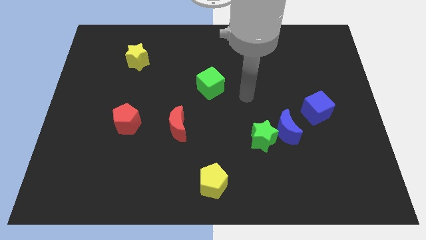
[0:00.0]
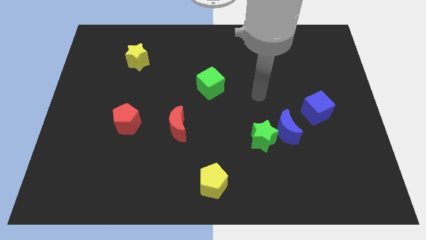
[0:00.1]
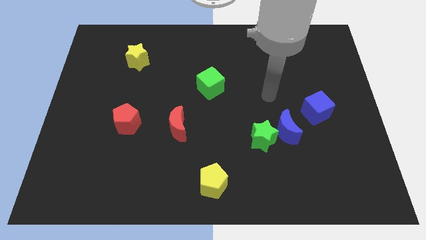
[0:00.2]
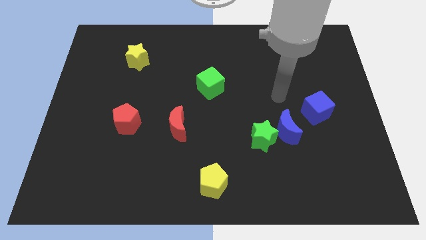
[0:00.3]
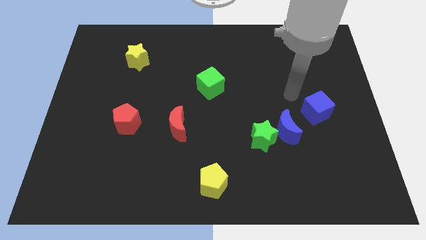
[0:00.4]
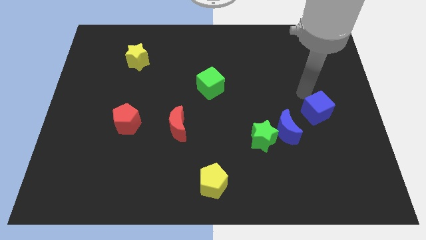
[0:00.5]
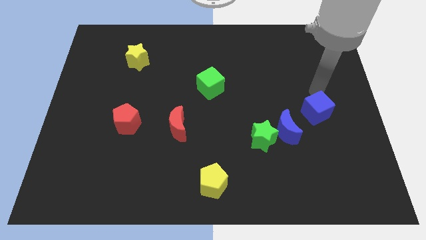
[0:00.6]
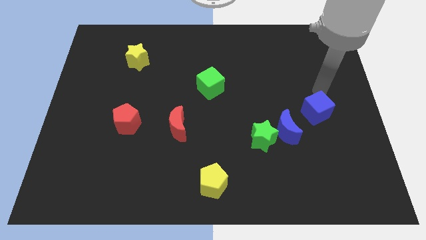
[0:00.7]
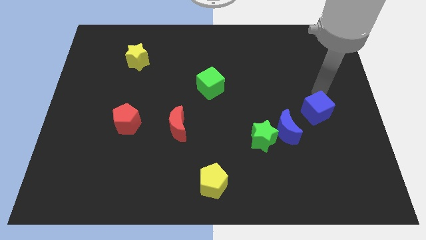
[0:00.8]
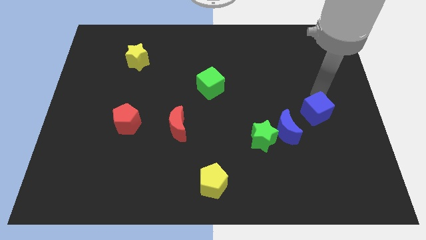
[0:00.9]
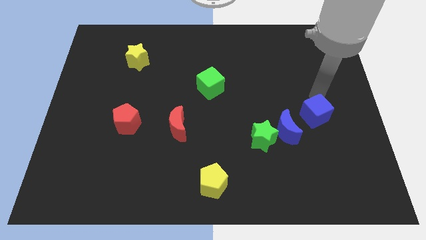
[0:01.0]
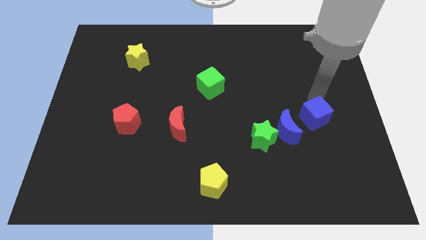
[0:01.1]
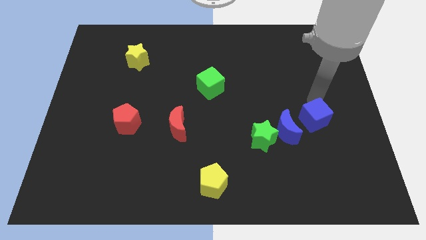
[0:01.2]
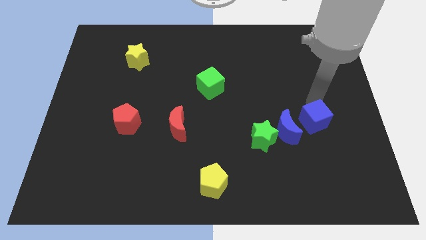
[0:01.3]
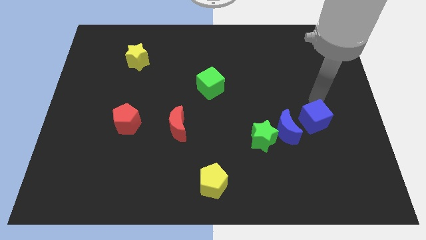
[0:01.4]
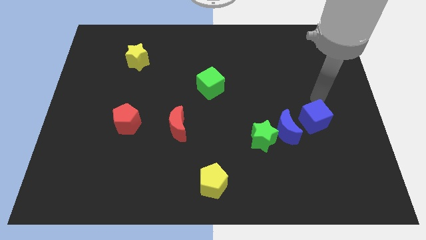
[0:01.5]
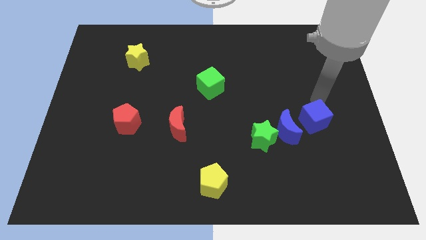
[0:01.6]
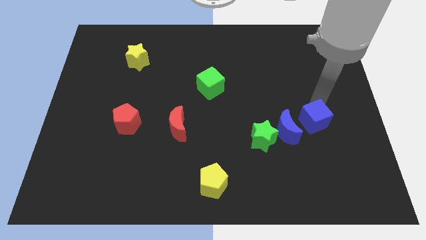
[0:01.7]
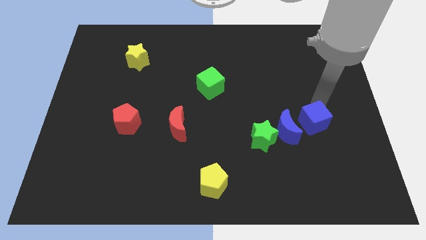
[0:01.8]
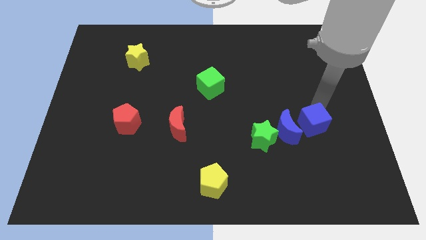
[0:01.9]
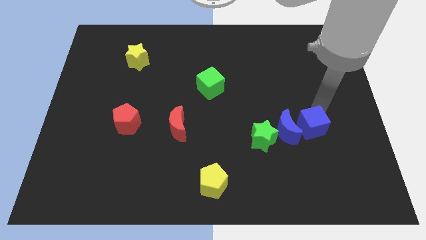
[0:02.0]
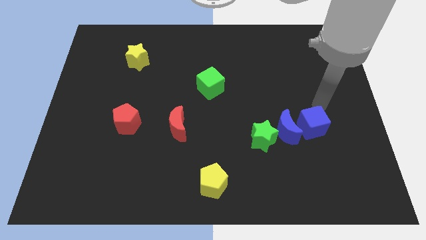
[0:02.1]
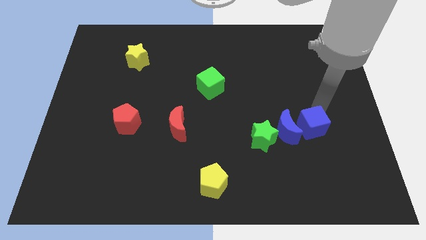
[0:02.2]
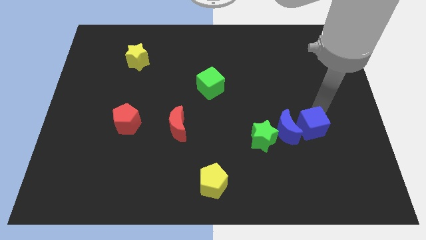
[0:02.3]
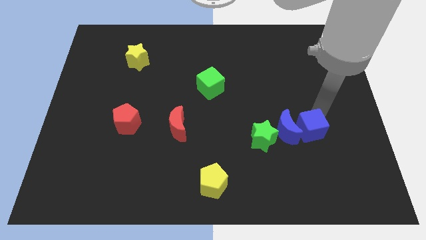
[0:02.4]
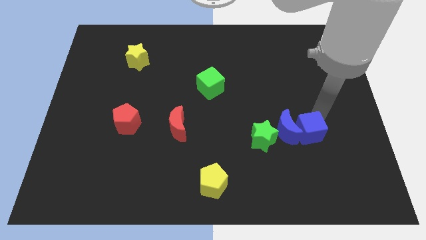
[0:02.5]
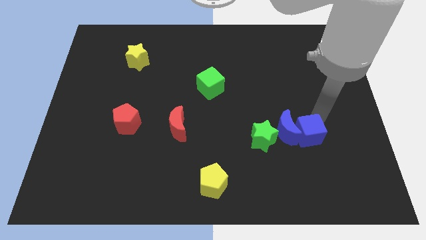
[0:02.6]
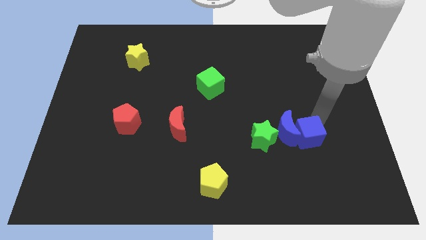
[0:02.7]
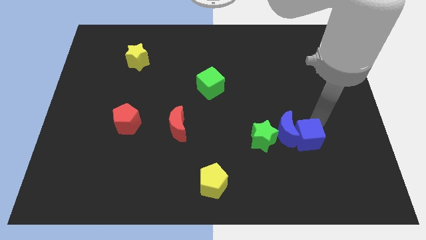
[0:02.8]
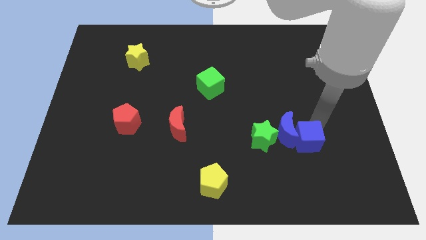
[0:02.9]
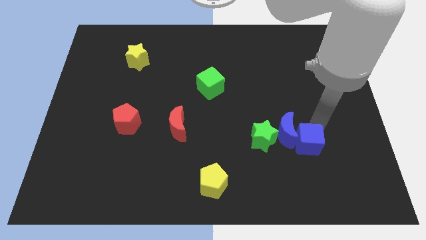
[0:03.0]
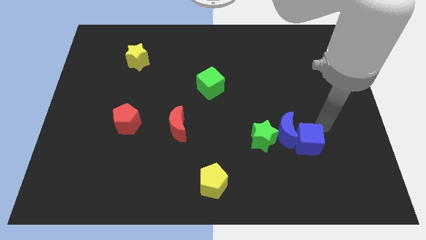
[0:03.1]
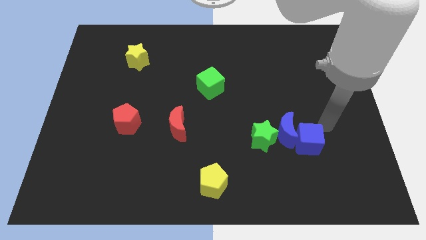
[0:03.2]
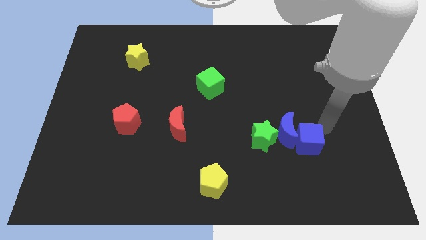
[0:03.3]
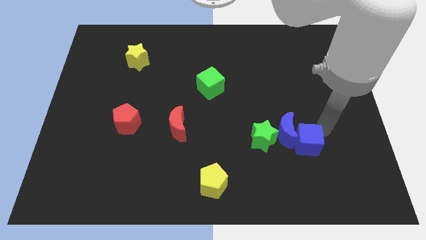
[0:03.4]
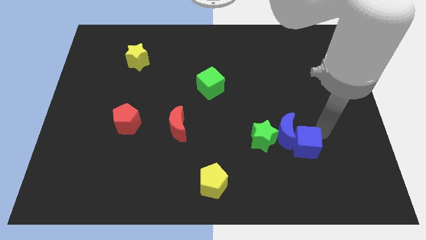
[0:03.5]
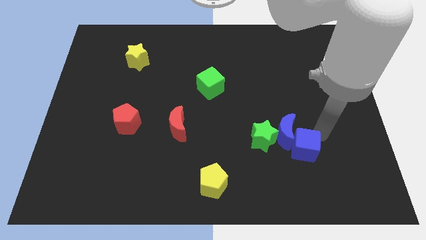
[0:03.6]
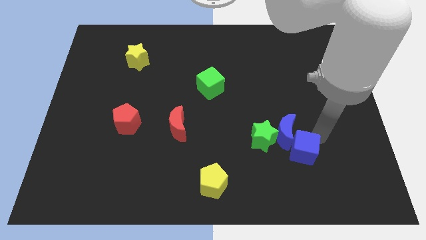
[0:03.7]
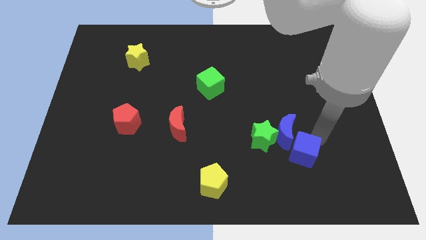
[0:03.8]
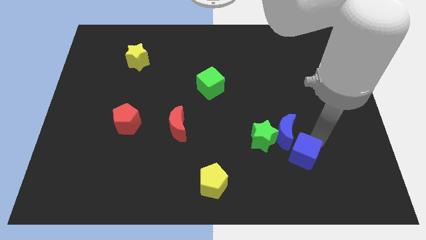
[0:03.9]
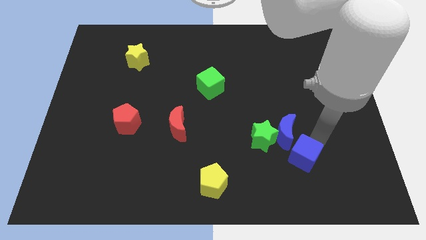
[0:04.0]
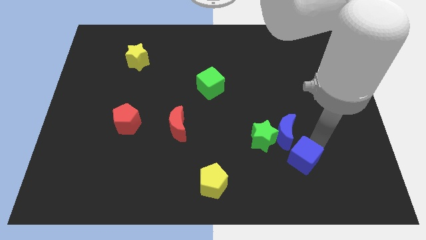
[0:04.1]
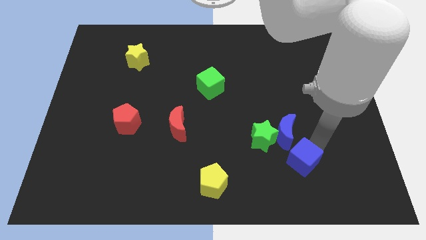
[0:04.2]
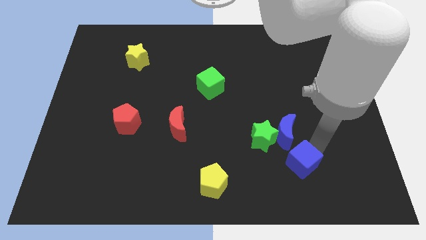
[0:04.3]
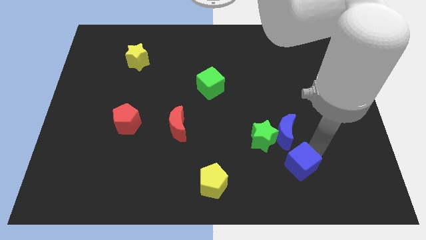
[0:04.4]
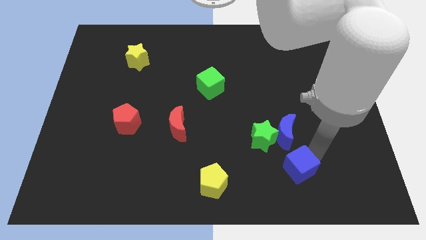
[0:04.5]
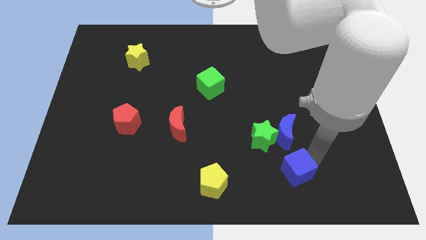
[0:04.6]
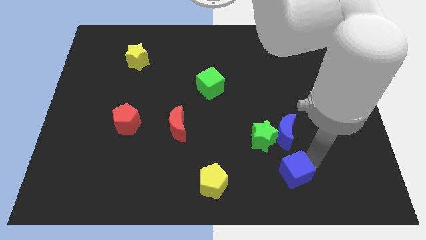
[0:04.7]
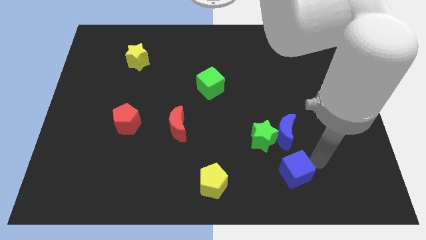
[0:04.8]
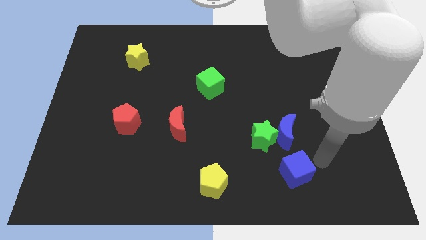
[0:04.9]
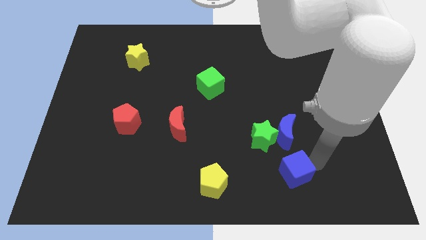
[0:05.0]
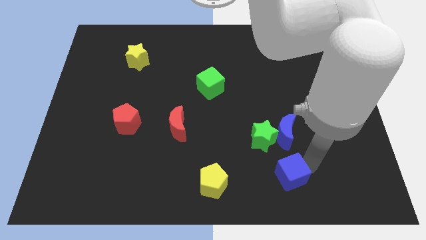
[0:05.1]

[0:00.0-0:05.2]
put the blue cube to the bottom side of the green star

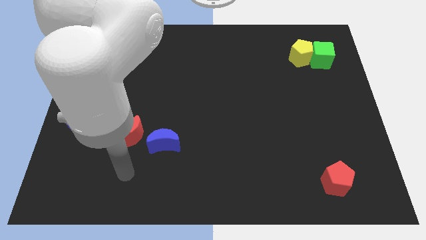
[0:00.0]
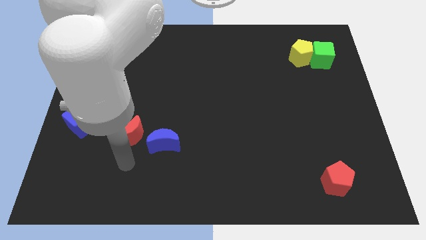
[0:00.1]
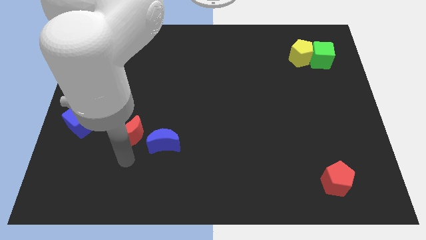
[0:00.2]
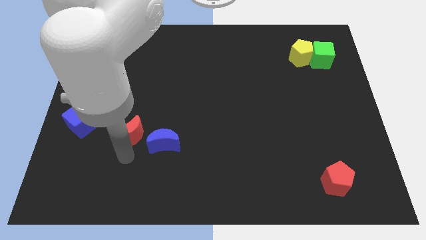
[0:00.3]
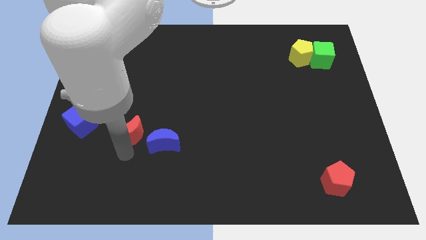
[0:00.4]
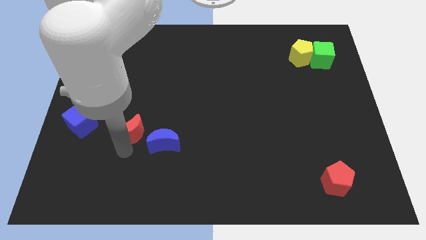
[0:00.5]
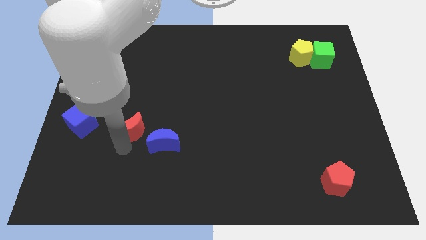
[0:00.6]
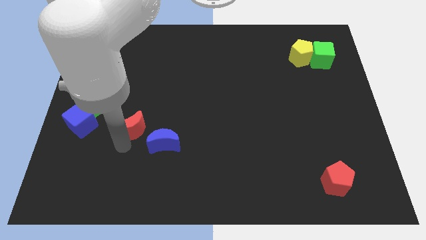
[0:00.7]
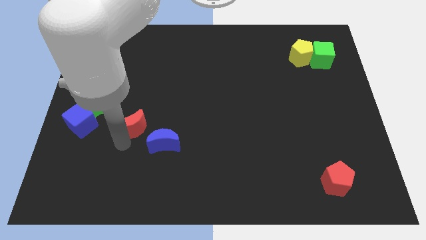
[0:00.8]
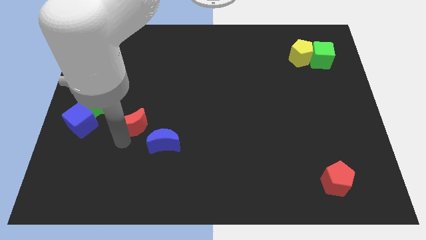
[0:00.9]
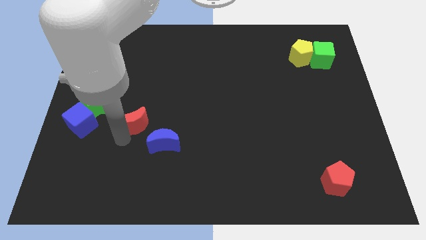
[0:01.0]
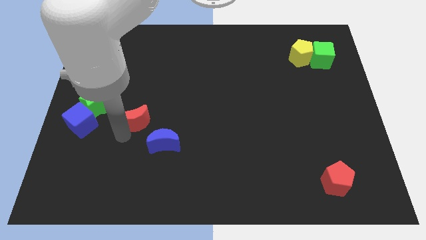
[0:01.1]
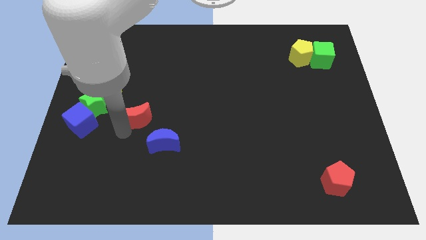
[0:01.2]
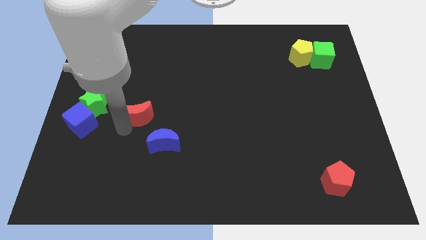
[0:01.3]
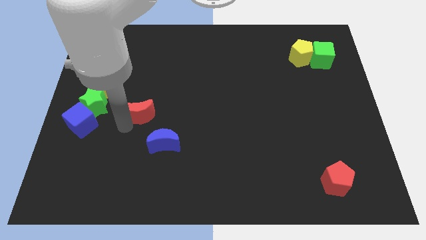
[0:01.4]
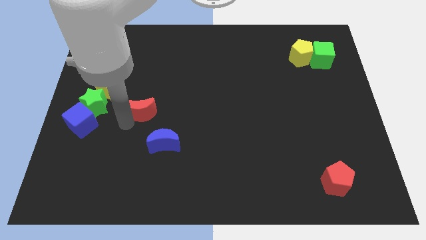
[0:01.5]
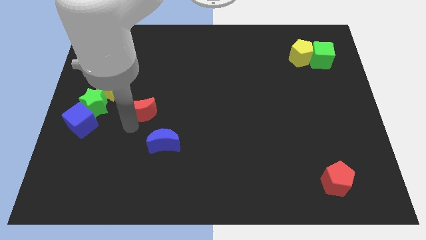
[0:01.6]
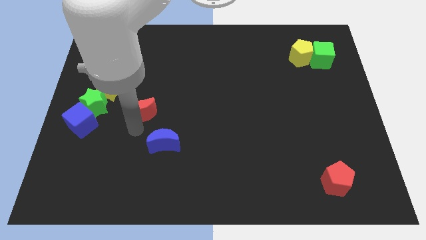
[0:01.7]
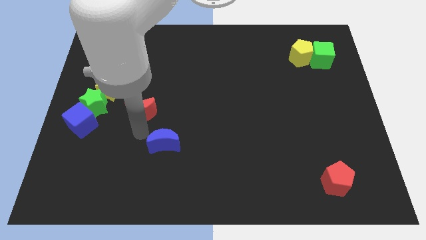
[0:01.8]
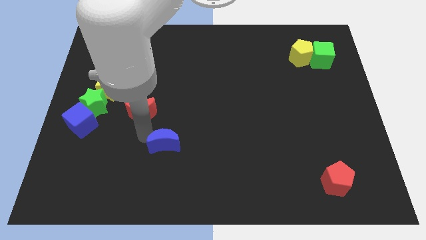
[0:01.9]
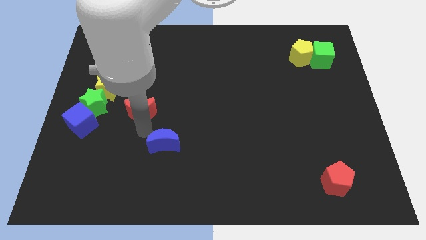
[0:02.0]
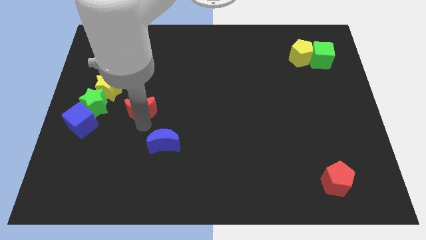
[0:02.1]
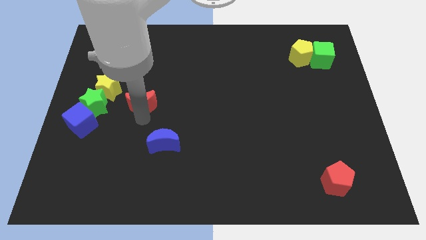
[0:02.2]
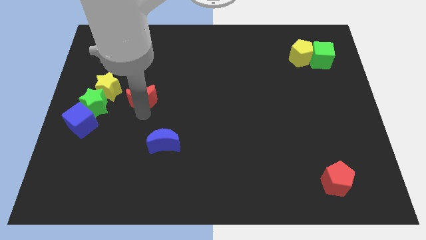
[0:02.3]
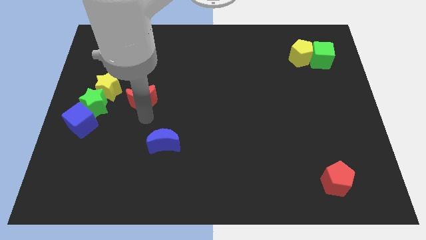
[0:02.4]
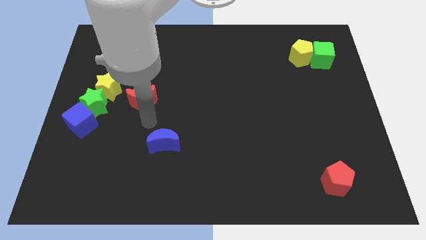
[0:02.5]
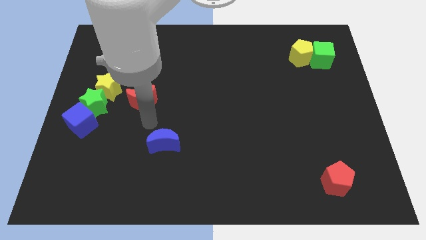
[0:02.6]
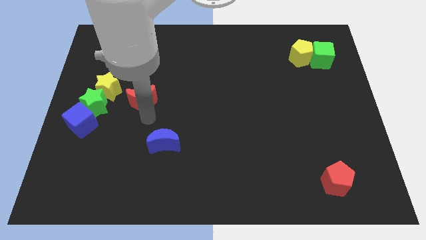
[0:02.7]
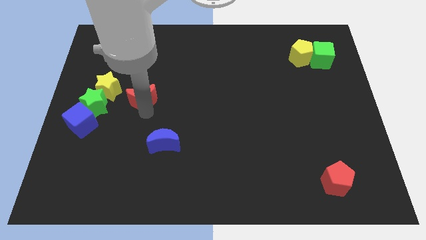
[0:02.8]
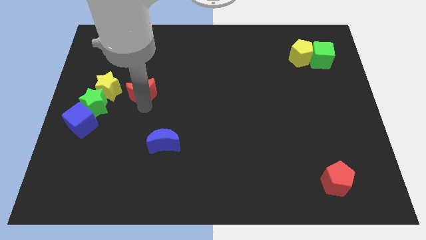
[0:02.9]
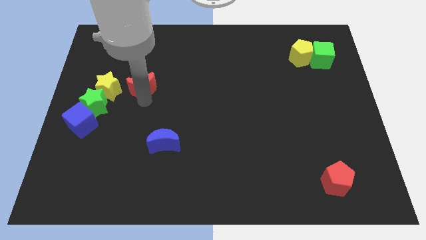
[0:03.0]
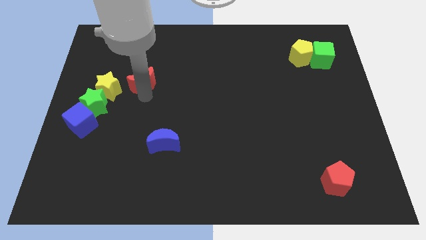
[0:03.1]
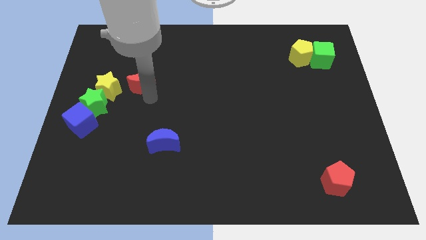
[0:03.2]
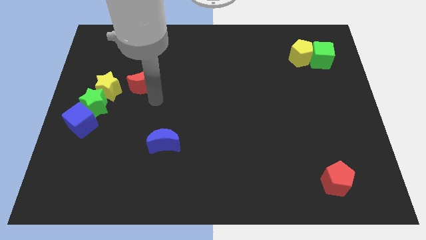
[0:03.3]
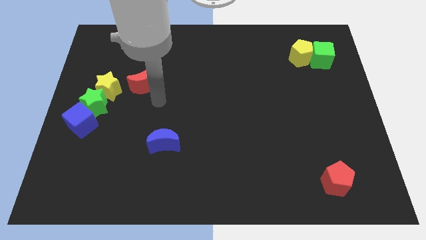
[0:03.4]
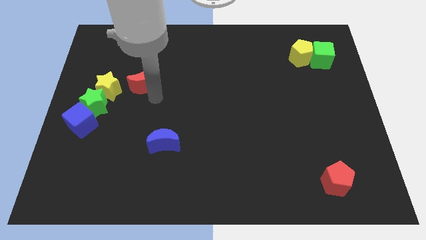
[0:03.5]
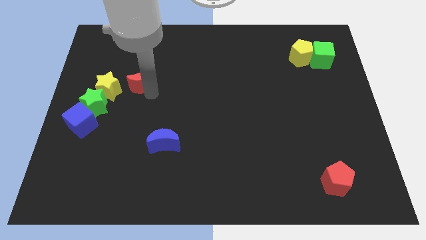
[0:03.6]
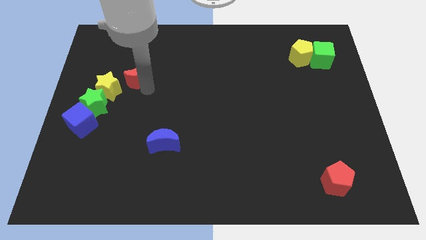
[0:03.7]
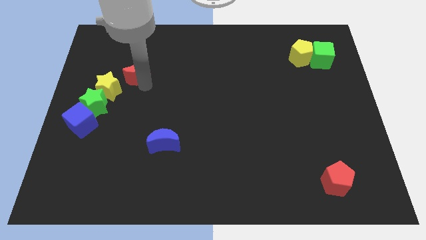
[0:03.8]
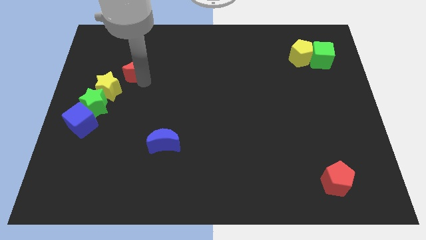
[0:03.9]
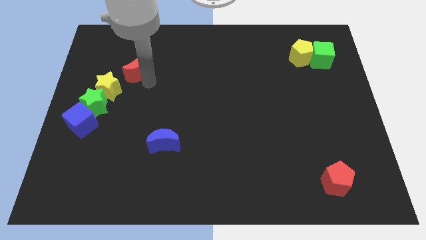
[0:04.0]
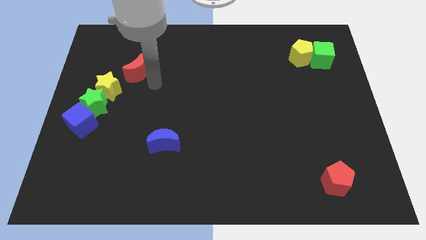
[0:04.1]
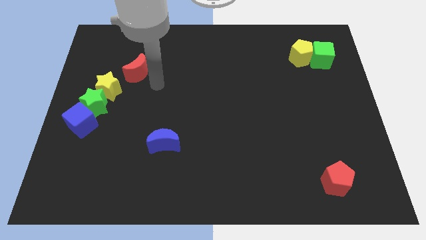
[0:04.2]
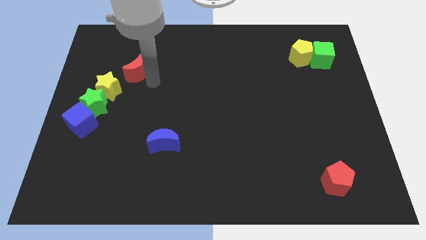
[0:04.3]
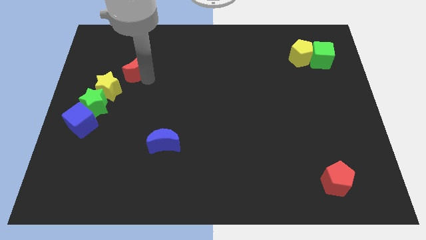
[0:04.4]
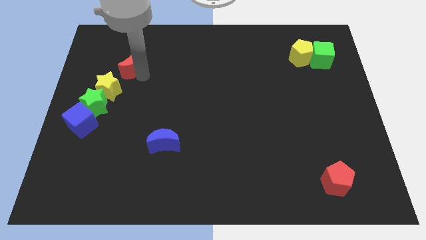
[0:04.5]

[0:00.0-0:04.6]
put the red moon to the top of the yellow star
